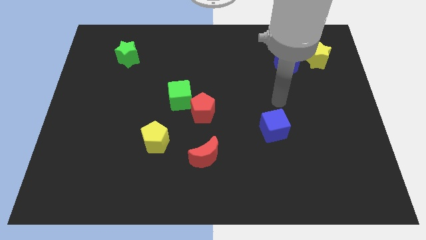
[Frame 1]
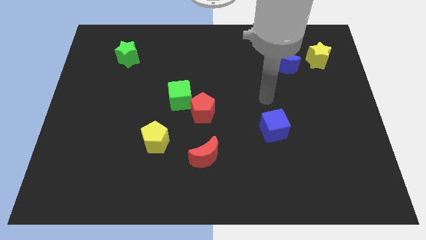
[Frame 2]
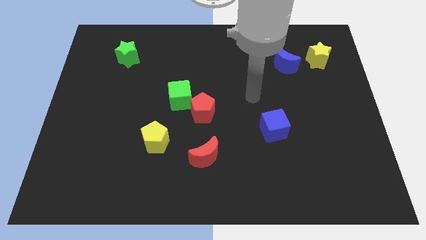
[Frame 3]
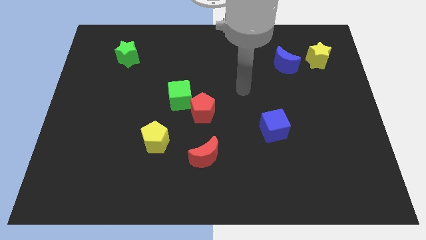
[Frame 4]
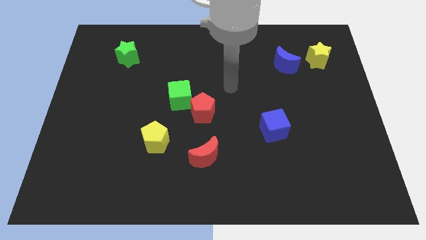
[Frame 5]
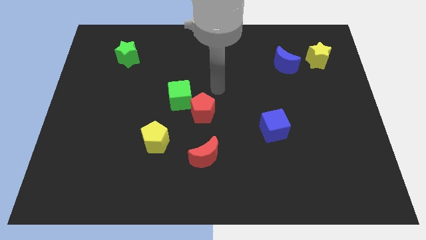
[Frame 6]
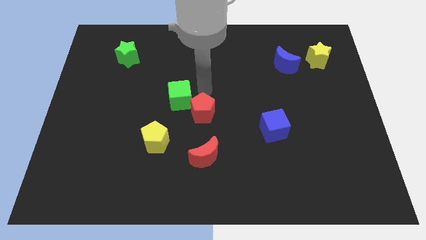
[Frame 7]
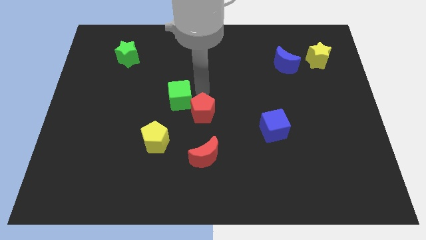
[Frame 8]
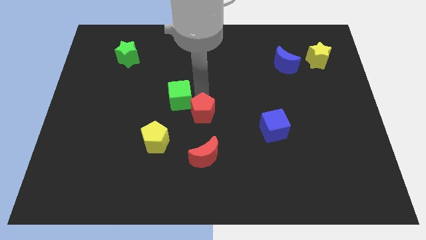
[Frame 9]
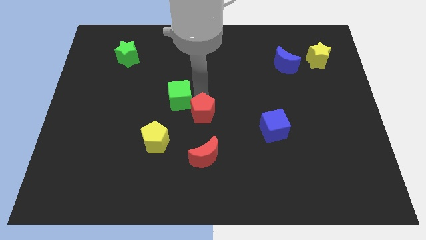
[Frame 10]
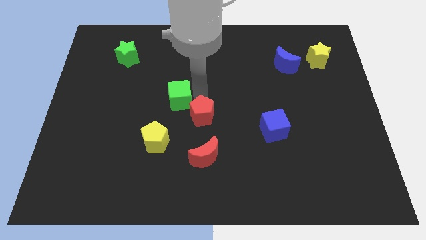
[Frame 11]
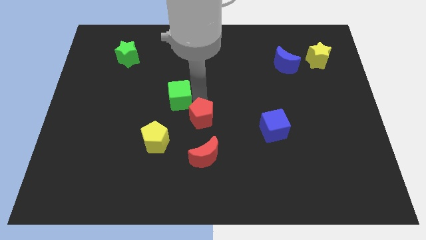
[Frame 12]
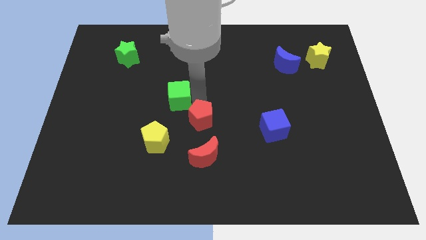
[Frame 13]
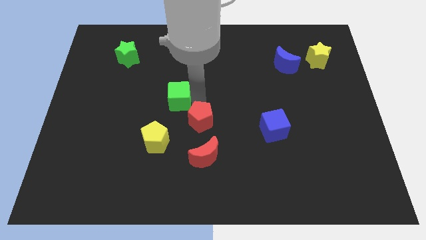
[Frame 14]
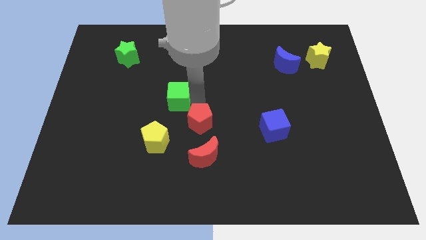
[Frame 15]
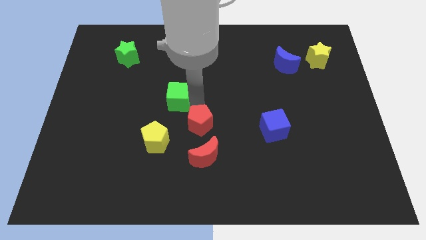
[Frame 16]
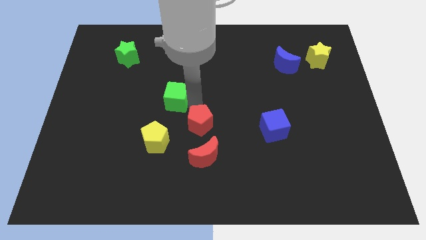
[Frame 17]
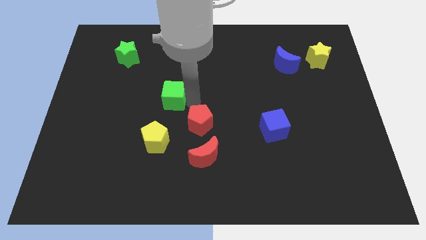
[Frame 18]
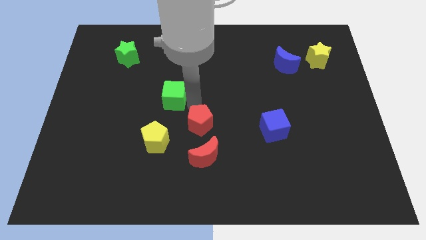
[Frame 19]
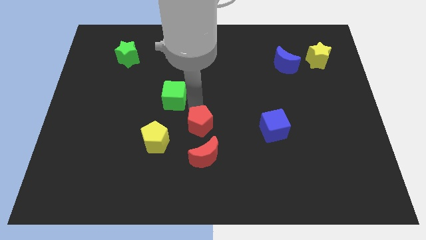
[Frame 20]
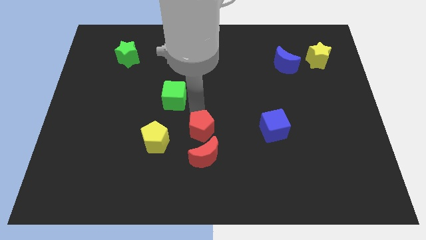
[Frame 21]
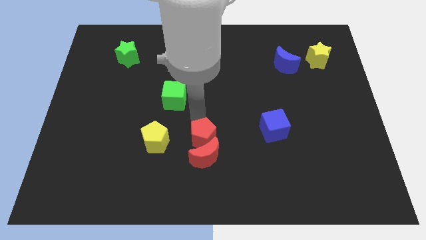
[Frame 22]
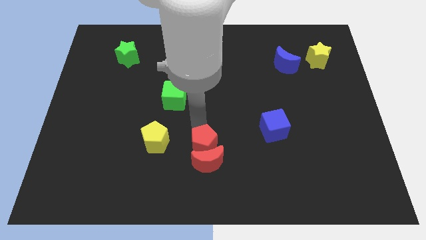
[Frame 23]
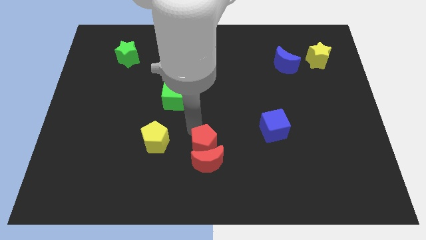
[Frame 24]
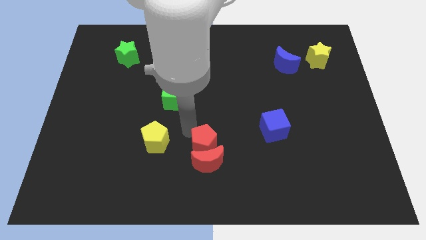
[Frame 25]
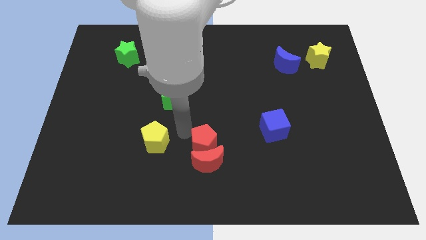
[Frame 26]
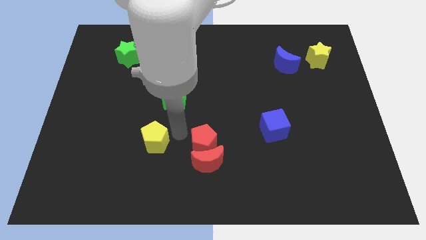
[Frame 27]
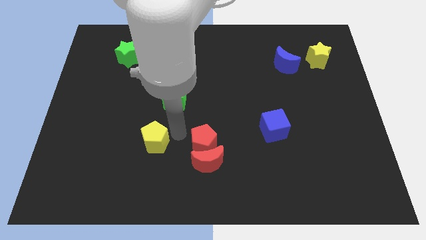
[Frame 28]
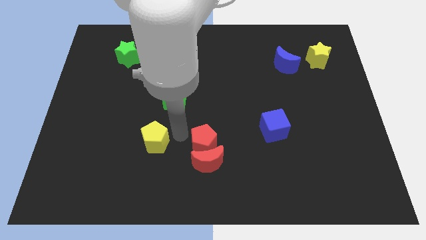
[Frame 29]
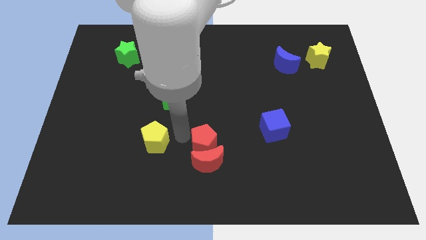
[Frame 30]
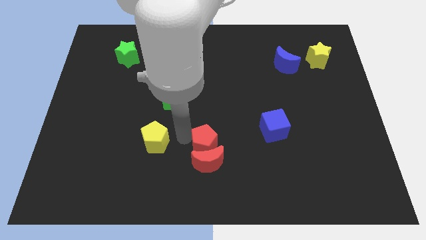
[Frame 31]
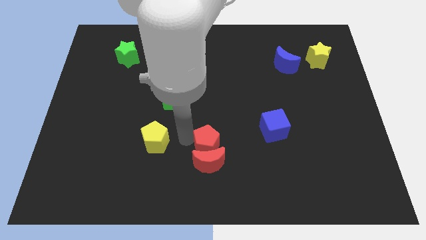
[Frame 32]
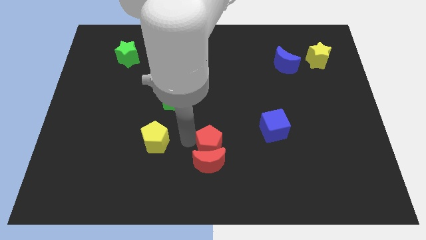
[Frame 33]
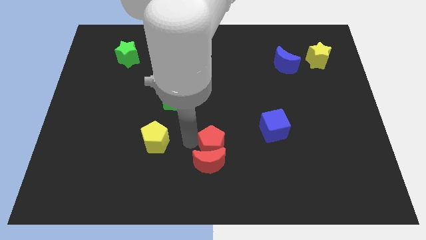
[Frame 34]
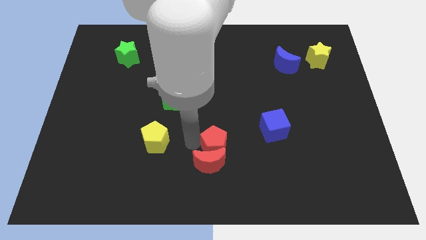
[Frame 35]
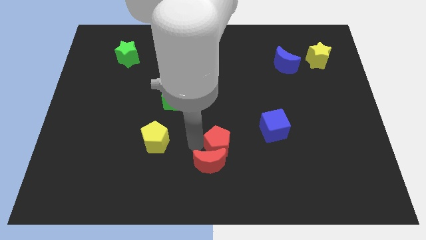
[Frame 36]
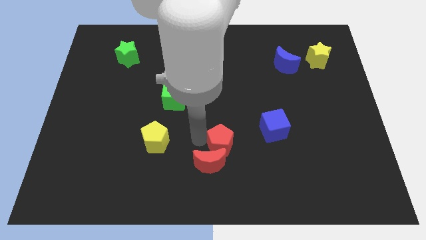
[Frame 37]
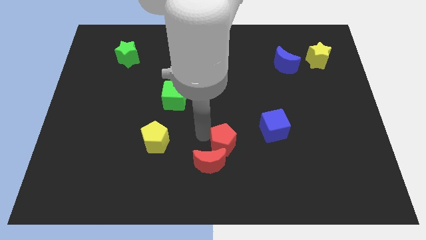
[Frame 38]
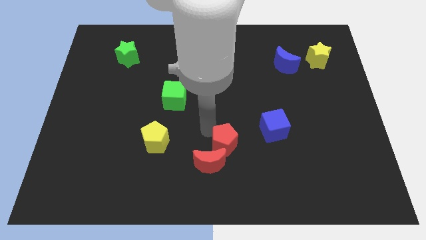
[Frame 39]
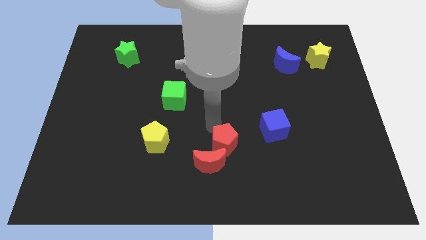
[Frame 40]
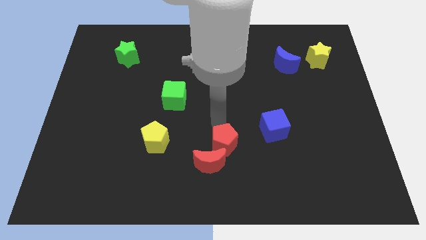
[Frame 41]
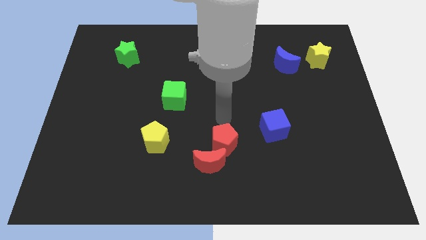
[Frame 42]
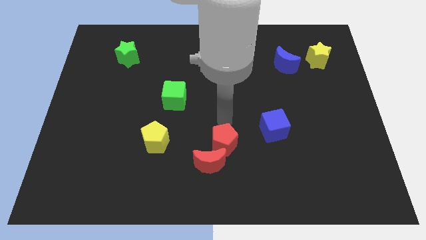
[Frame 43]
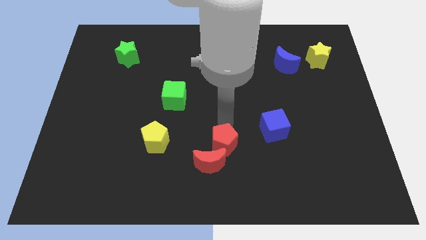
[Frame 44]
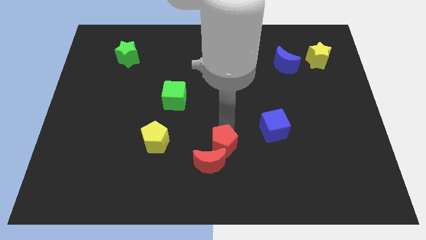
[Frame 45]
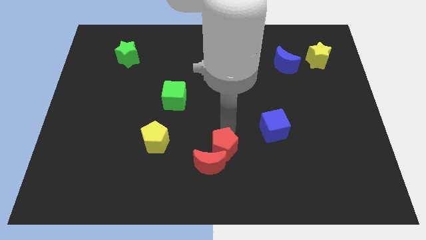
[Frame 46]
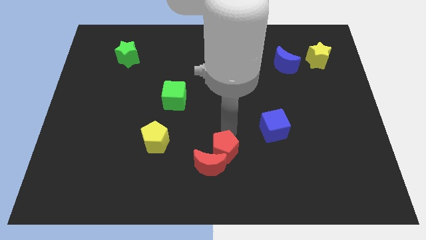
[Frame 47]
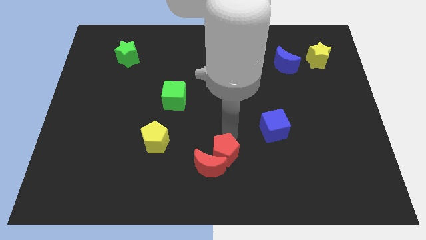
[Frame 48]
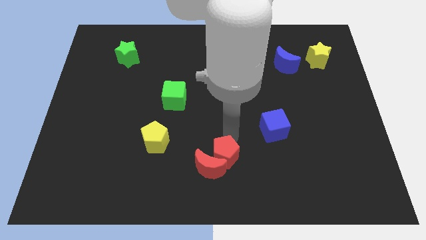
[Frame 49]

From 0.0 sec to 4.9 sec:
slide the red pentagon to the bottom side

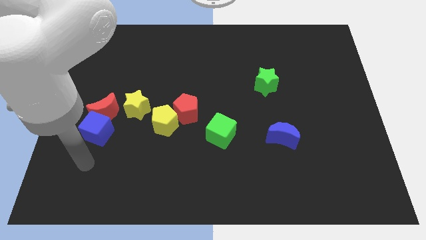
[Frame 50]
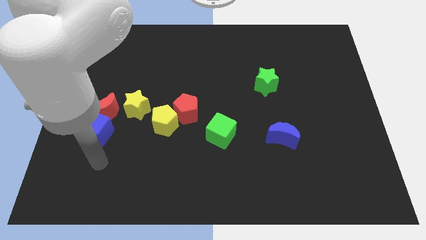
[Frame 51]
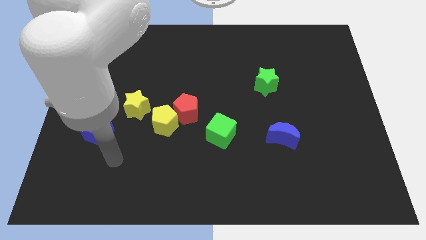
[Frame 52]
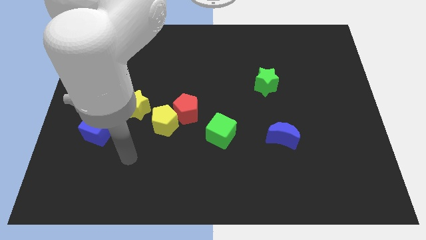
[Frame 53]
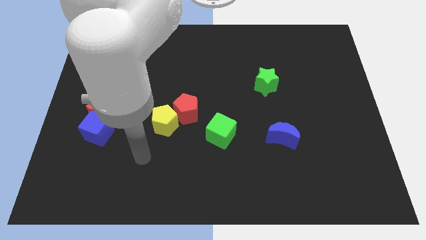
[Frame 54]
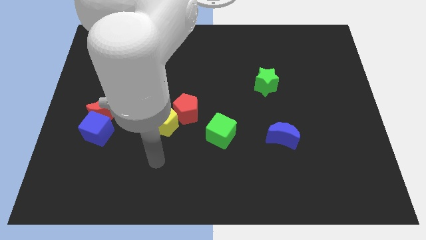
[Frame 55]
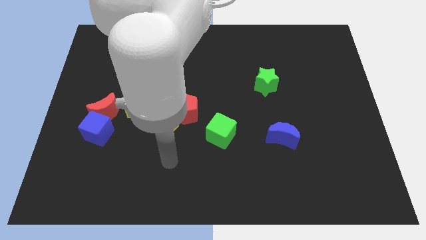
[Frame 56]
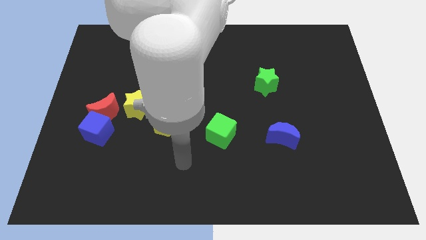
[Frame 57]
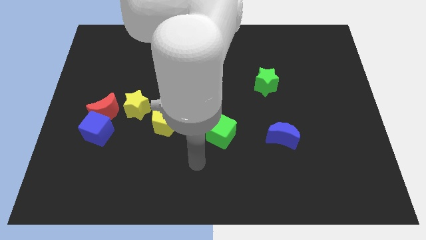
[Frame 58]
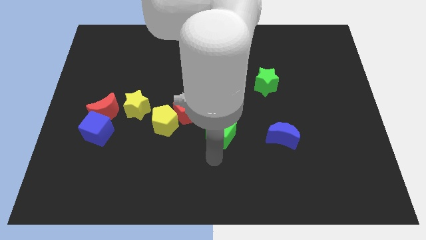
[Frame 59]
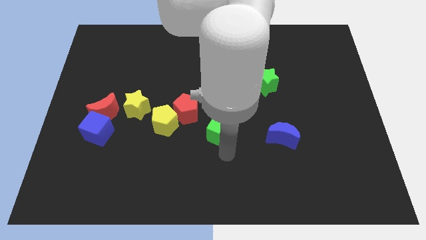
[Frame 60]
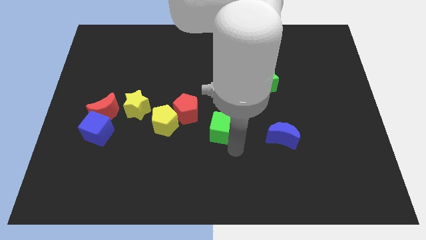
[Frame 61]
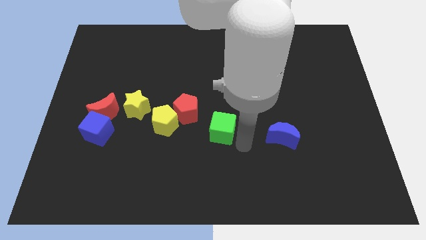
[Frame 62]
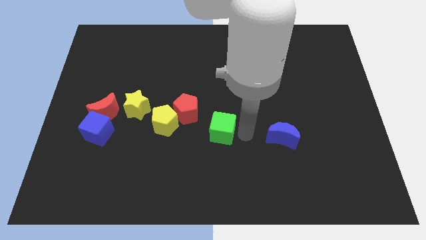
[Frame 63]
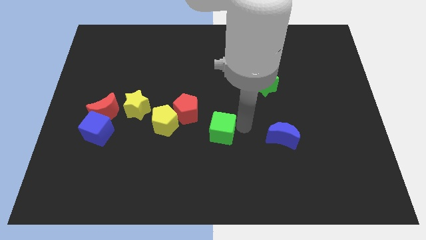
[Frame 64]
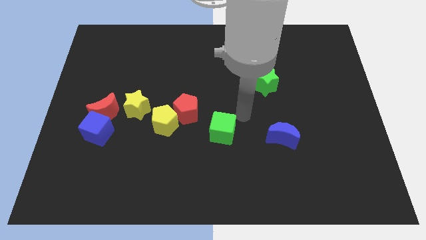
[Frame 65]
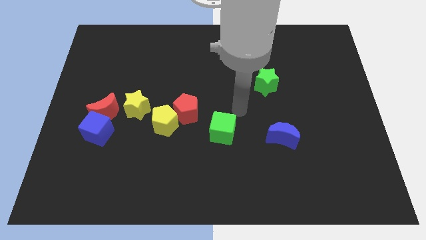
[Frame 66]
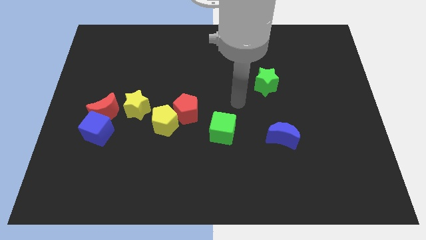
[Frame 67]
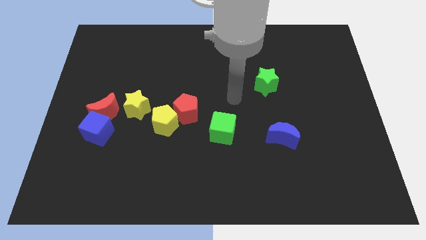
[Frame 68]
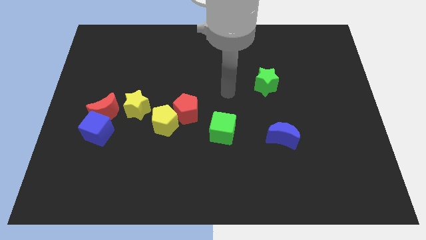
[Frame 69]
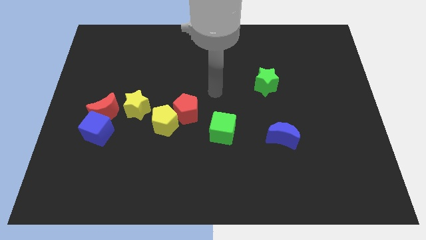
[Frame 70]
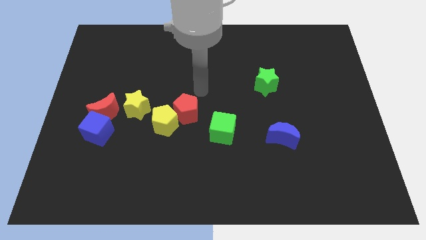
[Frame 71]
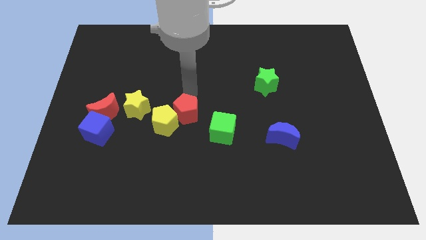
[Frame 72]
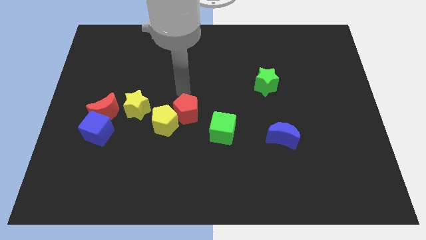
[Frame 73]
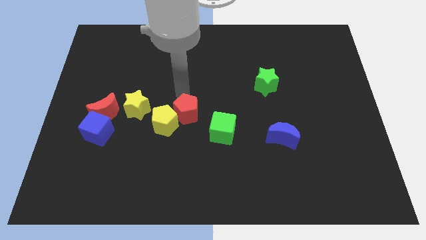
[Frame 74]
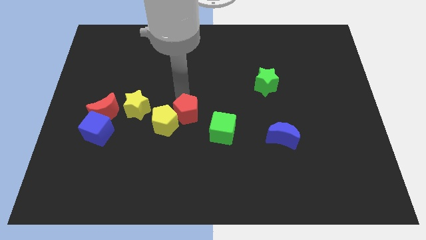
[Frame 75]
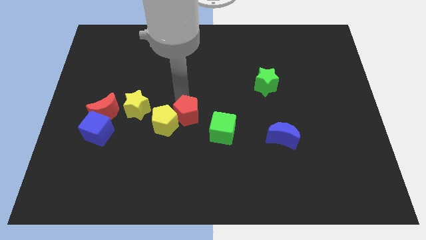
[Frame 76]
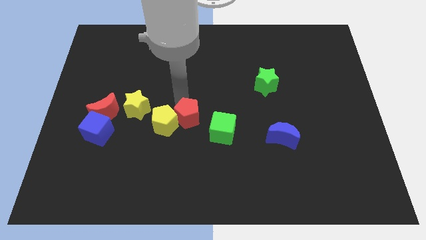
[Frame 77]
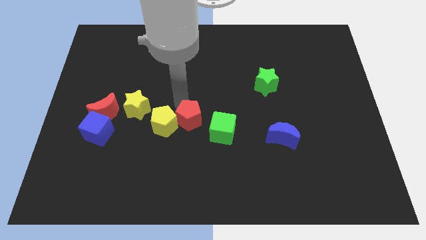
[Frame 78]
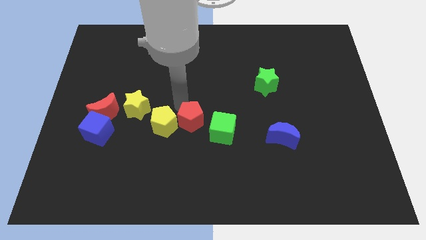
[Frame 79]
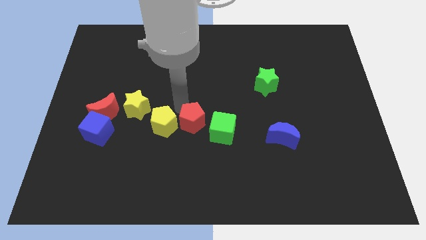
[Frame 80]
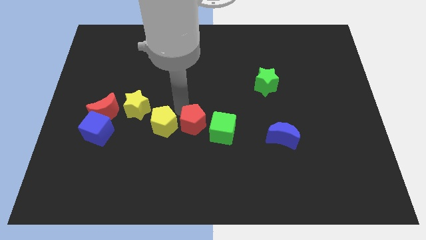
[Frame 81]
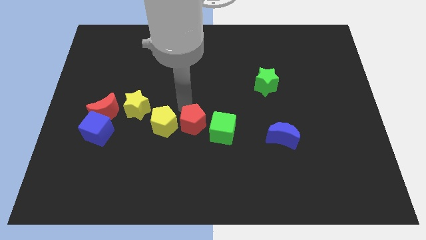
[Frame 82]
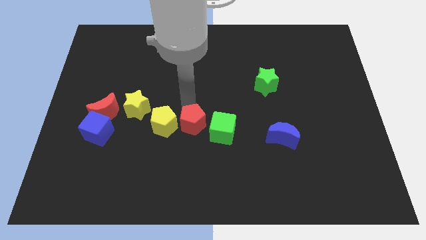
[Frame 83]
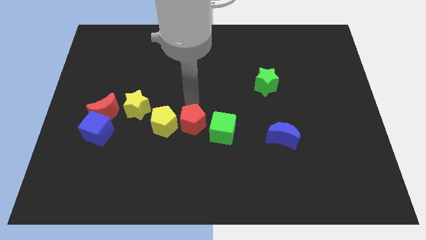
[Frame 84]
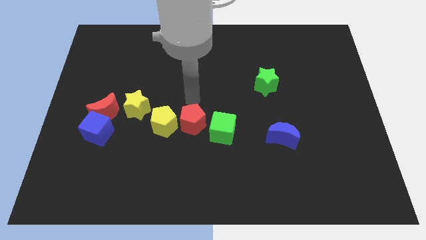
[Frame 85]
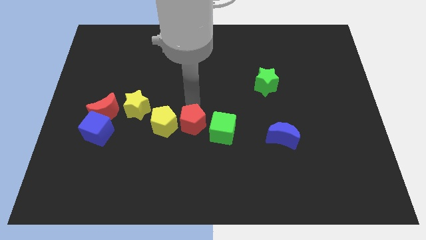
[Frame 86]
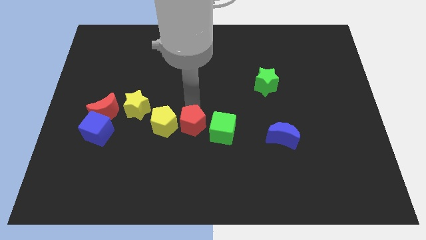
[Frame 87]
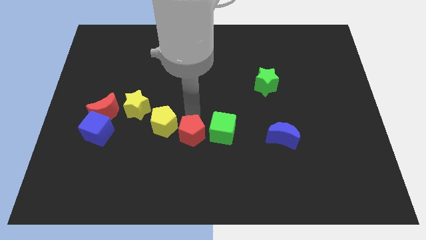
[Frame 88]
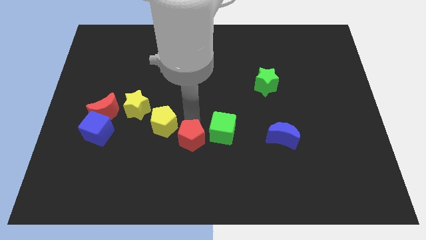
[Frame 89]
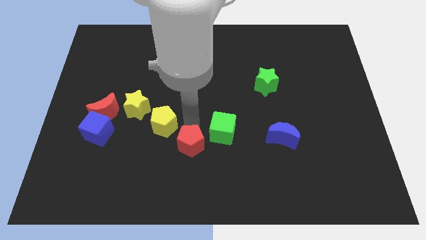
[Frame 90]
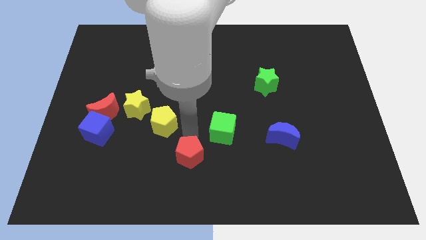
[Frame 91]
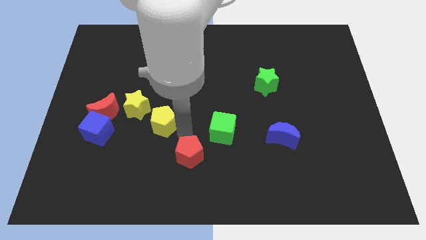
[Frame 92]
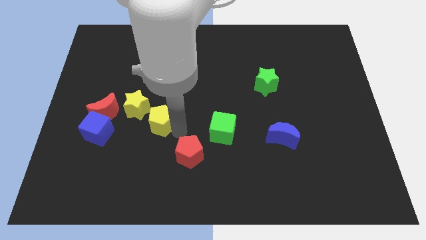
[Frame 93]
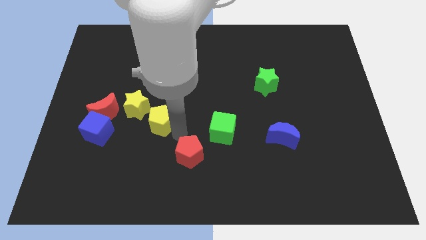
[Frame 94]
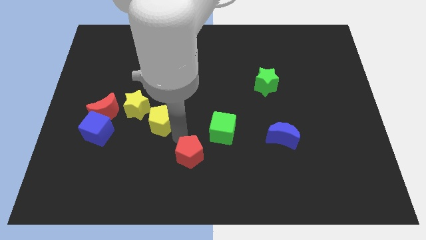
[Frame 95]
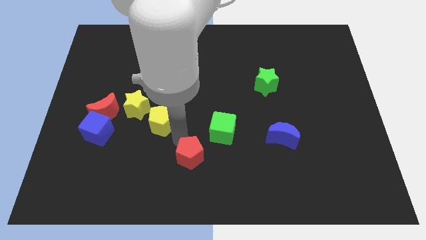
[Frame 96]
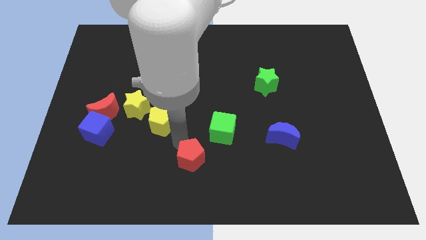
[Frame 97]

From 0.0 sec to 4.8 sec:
slide the red pentagon to the bottom
